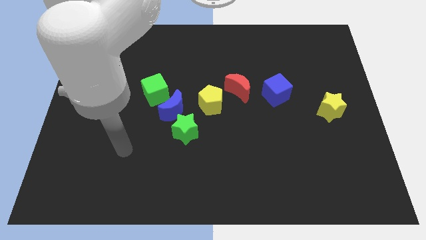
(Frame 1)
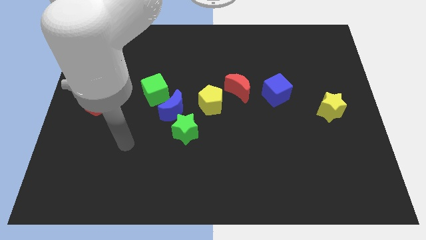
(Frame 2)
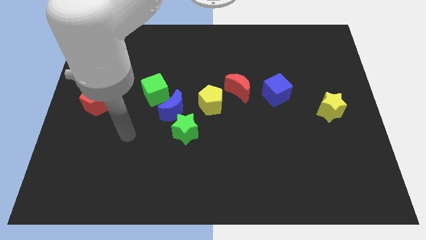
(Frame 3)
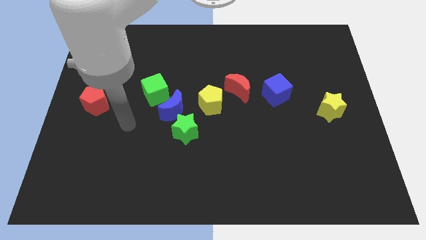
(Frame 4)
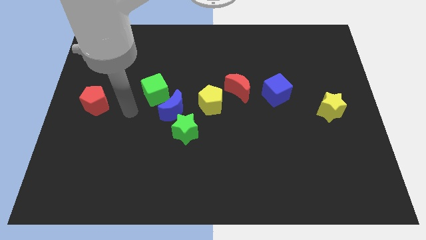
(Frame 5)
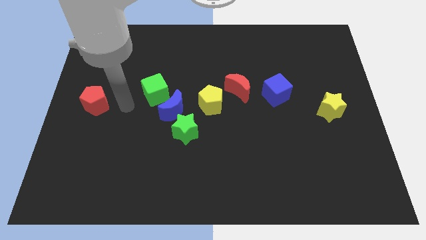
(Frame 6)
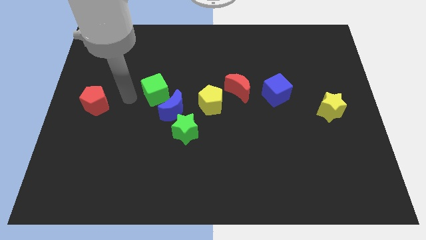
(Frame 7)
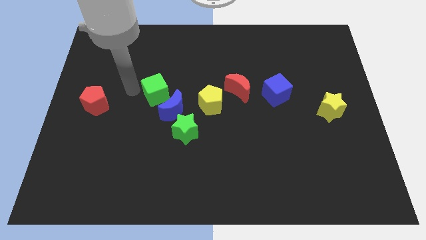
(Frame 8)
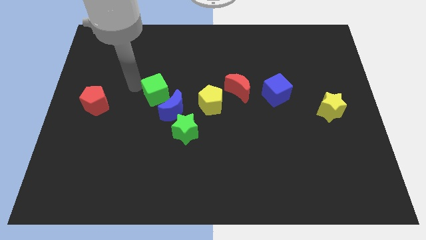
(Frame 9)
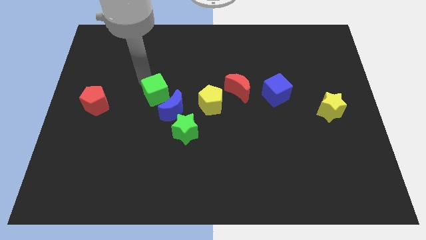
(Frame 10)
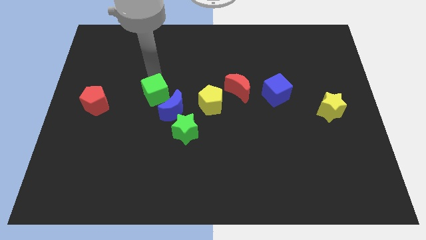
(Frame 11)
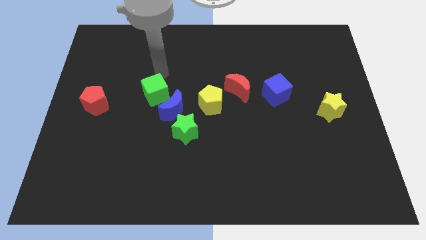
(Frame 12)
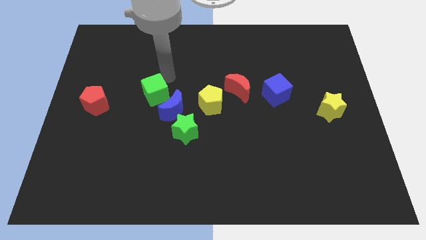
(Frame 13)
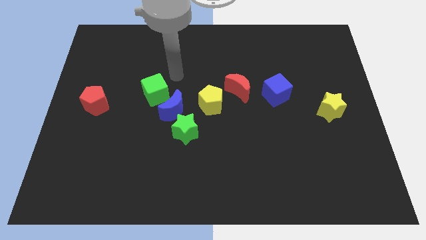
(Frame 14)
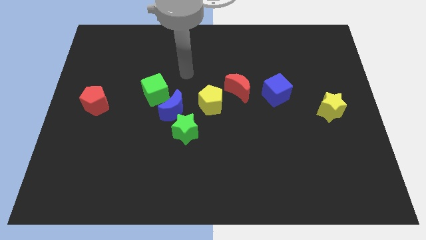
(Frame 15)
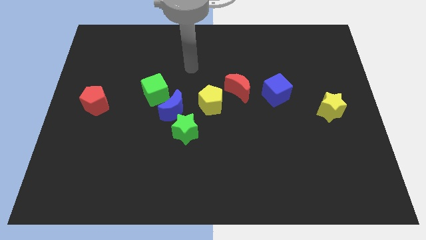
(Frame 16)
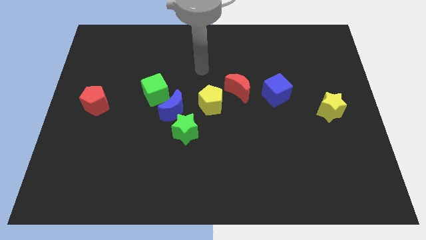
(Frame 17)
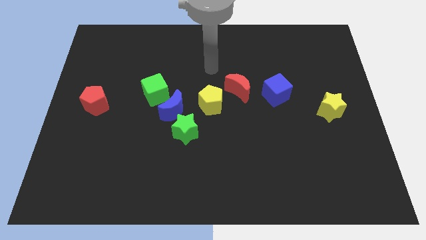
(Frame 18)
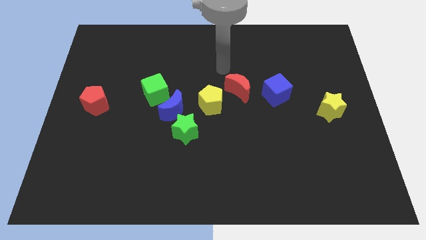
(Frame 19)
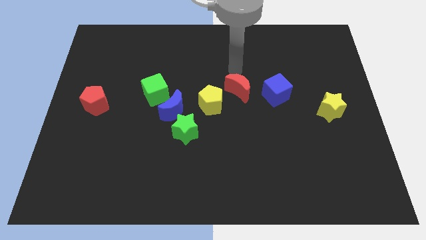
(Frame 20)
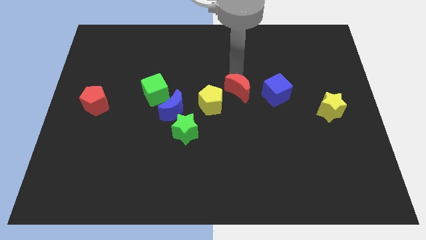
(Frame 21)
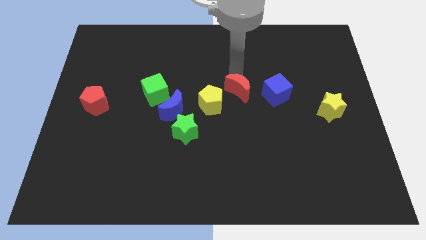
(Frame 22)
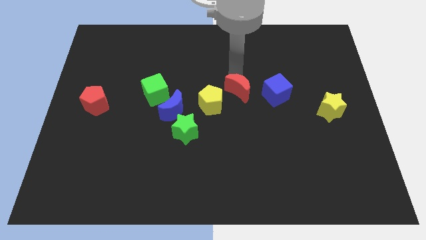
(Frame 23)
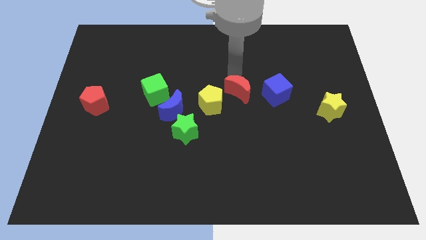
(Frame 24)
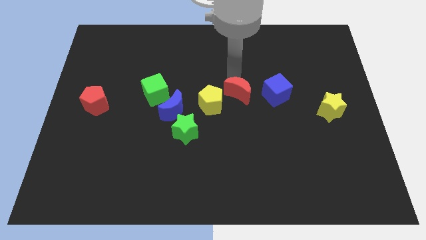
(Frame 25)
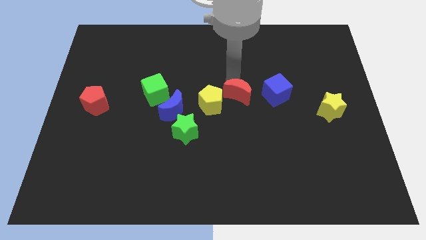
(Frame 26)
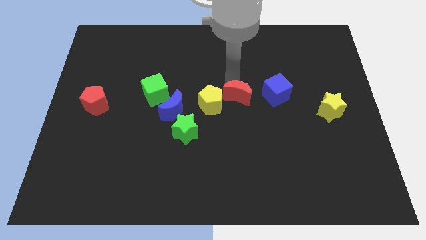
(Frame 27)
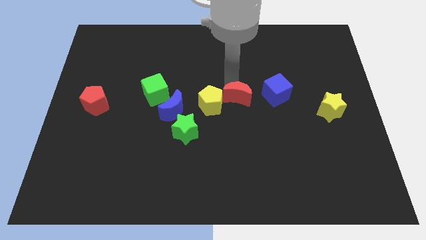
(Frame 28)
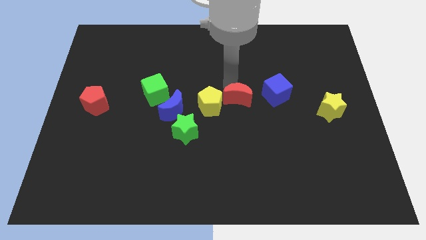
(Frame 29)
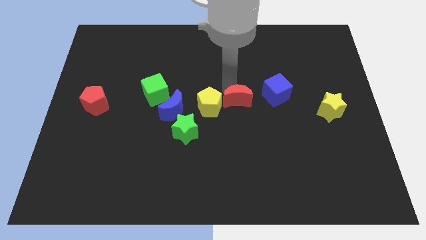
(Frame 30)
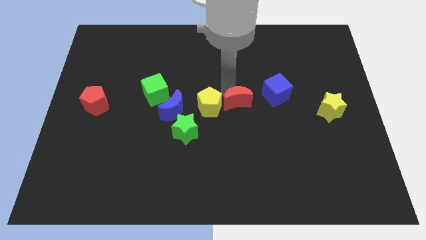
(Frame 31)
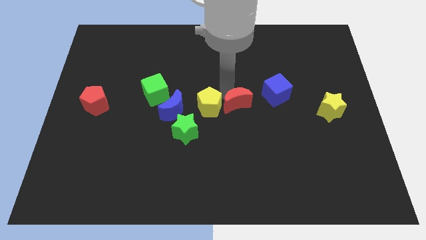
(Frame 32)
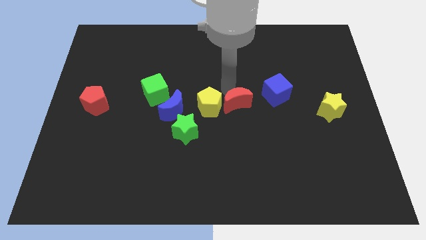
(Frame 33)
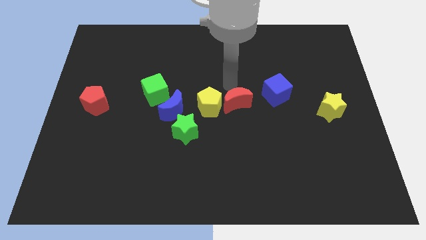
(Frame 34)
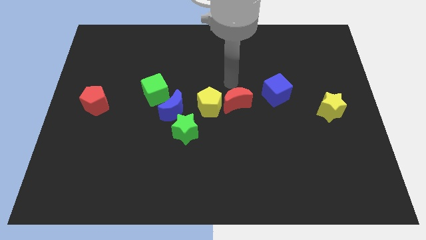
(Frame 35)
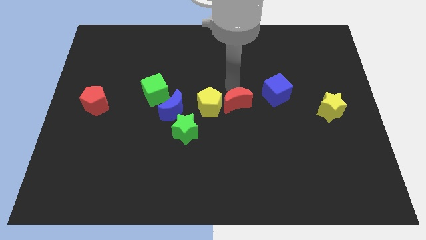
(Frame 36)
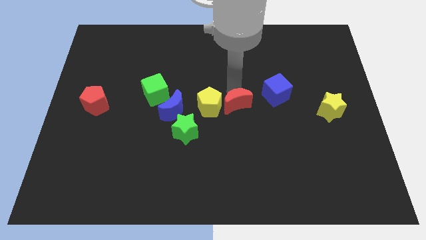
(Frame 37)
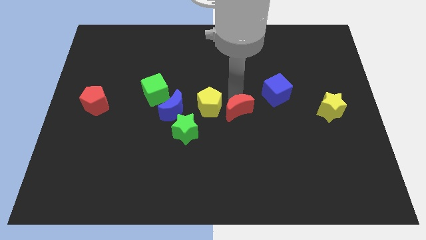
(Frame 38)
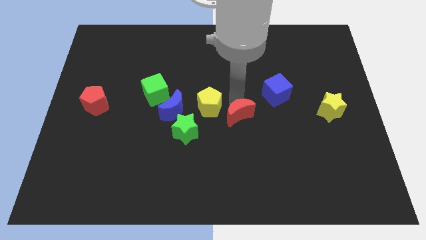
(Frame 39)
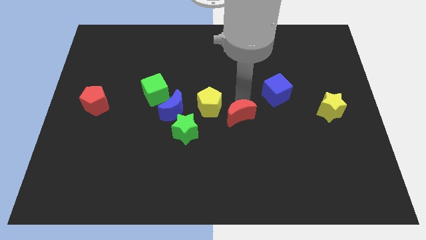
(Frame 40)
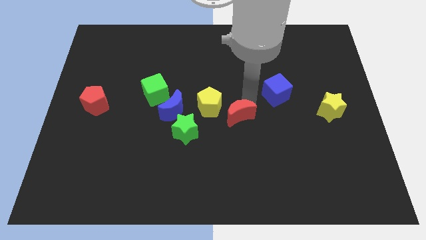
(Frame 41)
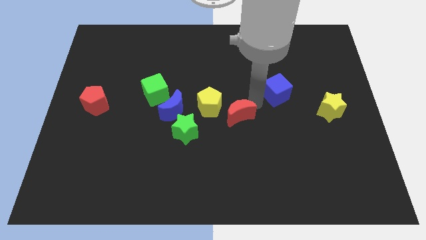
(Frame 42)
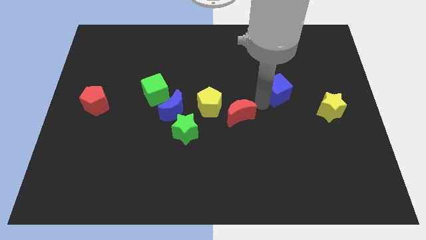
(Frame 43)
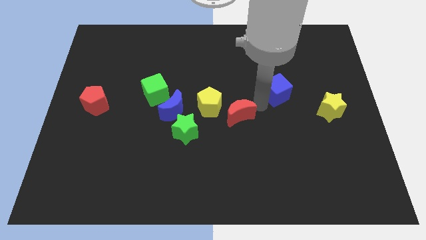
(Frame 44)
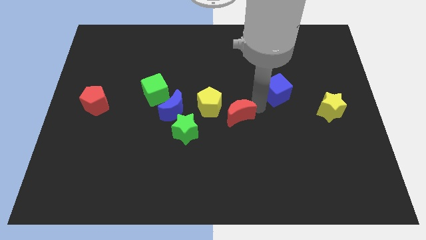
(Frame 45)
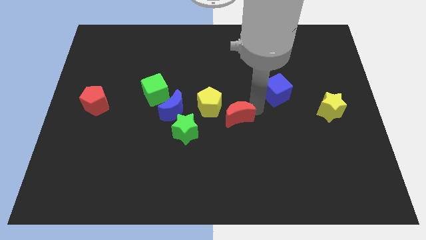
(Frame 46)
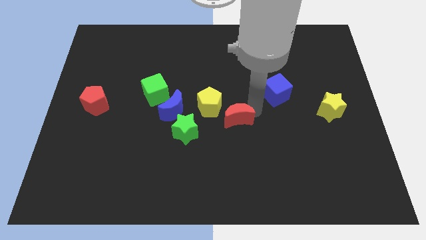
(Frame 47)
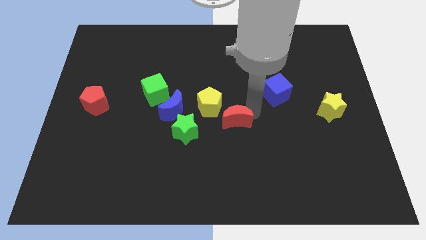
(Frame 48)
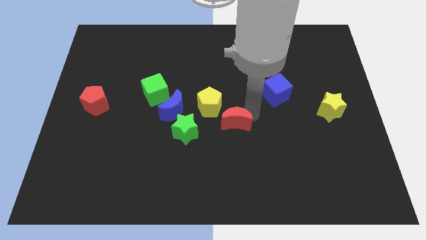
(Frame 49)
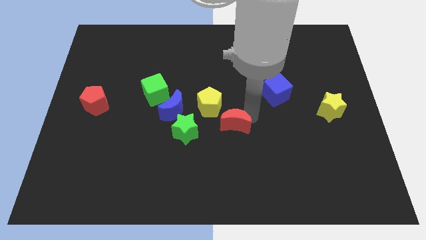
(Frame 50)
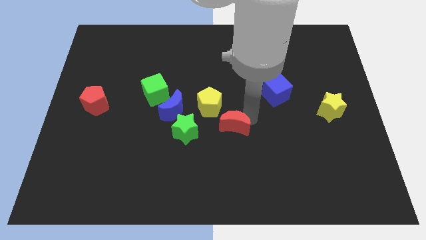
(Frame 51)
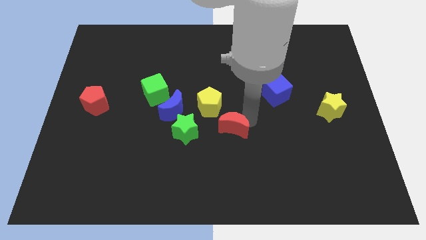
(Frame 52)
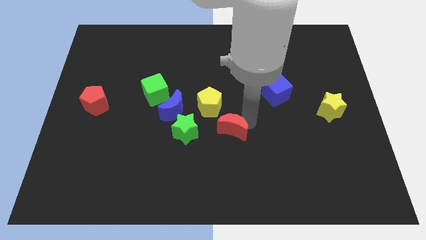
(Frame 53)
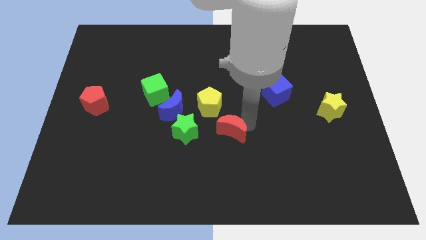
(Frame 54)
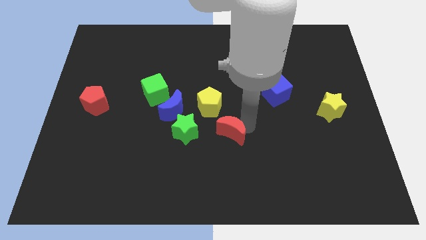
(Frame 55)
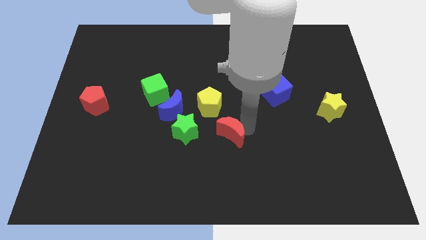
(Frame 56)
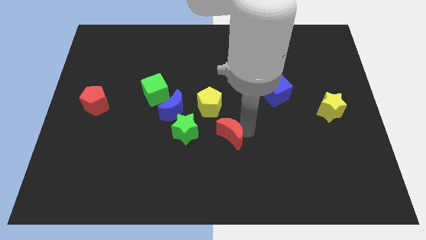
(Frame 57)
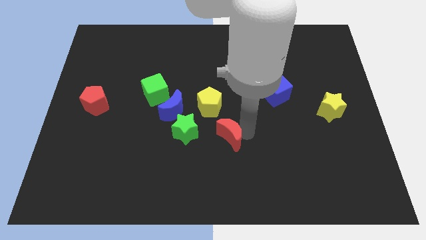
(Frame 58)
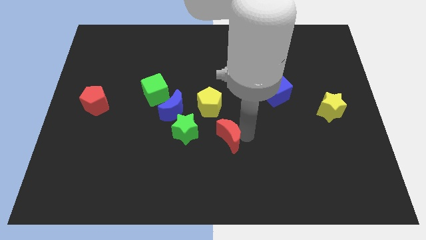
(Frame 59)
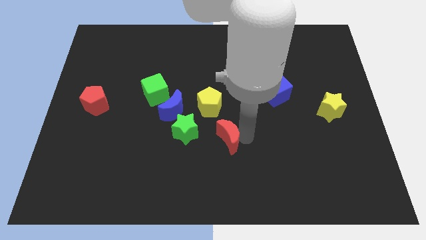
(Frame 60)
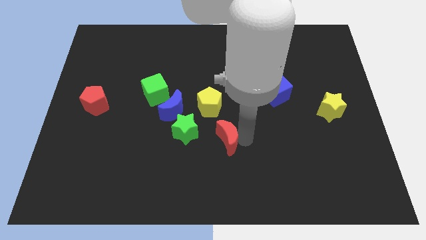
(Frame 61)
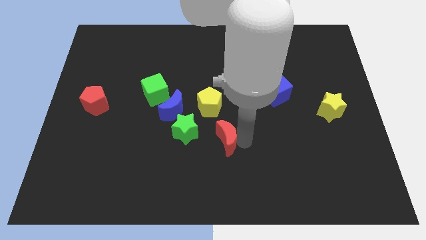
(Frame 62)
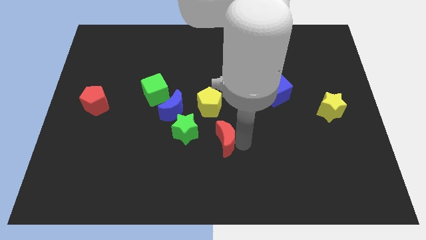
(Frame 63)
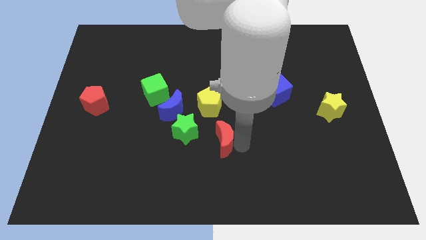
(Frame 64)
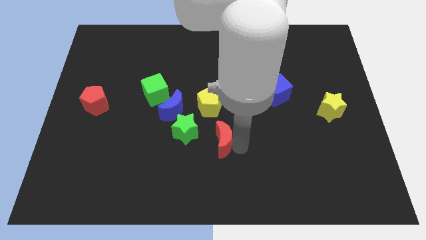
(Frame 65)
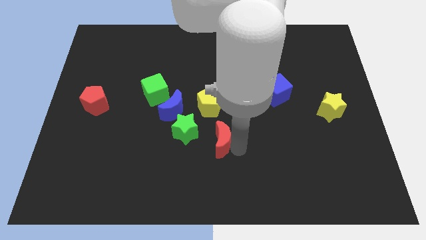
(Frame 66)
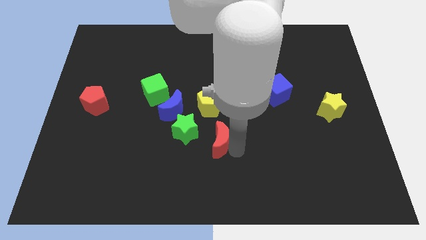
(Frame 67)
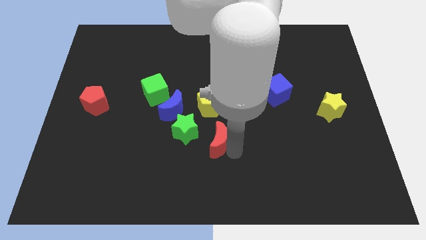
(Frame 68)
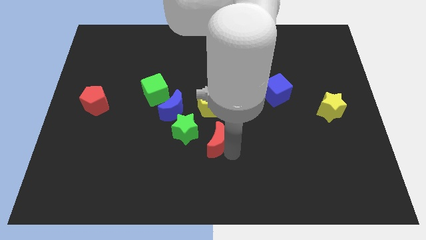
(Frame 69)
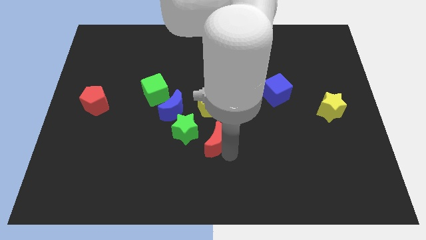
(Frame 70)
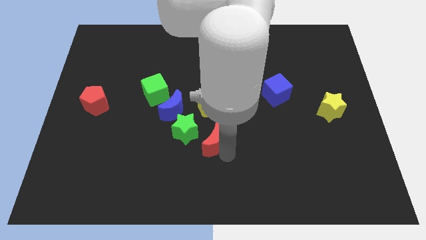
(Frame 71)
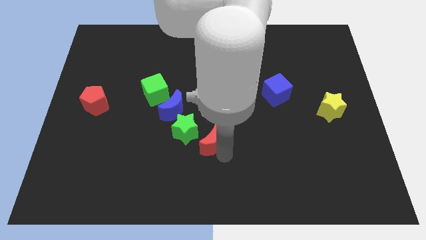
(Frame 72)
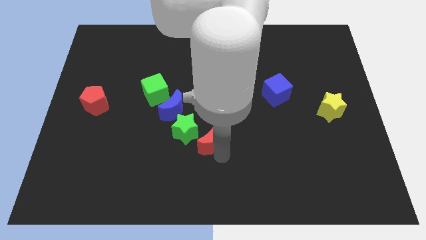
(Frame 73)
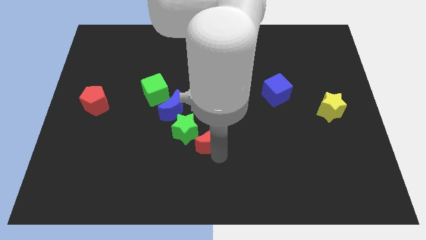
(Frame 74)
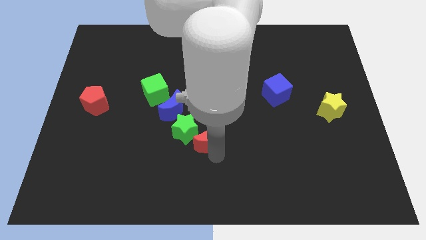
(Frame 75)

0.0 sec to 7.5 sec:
slide the red moon close to the green star

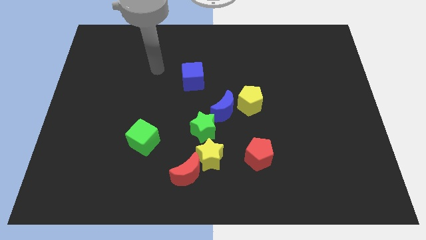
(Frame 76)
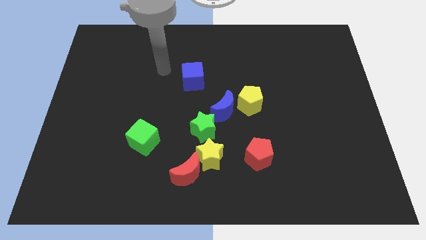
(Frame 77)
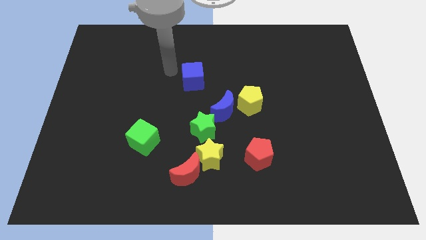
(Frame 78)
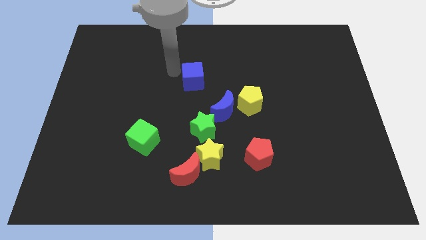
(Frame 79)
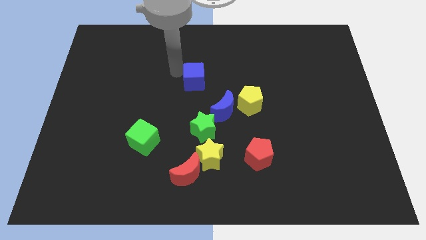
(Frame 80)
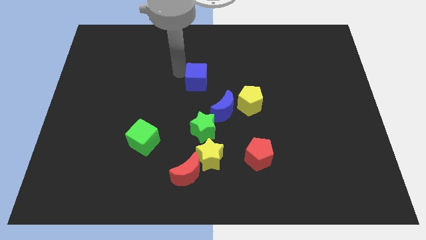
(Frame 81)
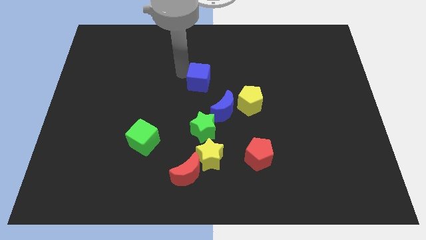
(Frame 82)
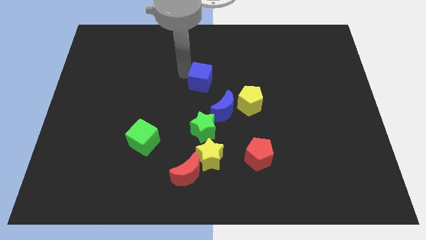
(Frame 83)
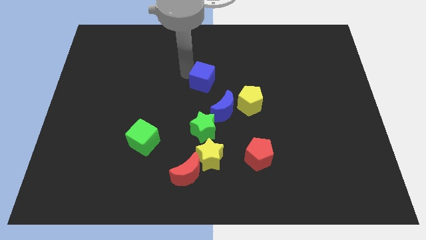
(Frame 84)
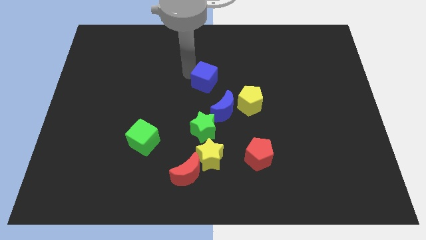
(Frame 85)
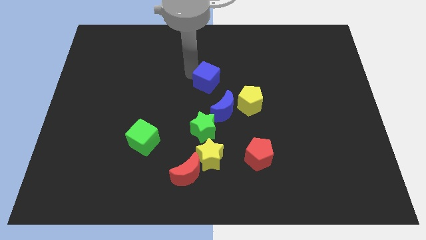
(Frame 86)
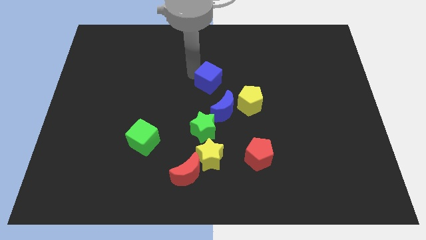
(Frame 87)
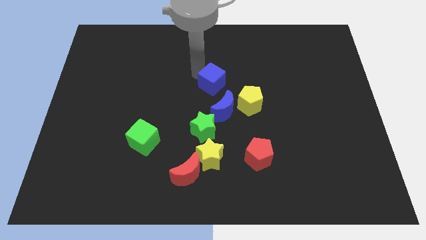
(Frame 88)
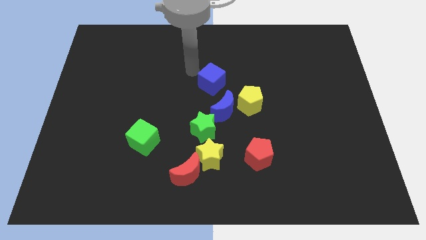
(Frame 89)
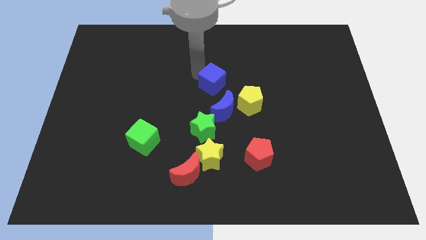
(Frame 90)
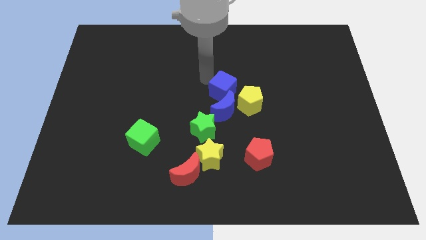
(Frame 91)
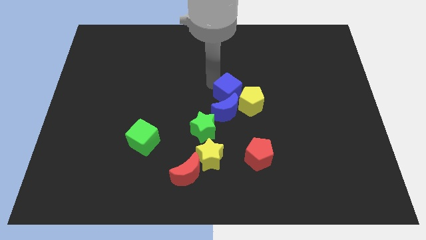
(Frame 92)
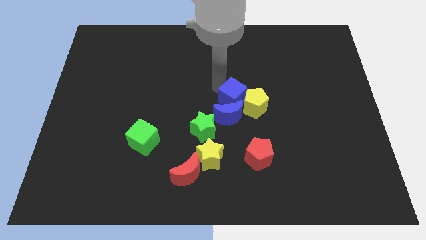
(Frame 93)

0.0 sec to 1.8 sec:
slide the blue cube towards the yellow pentagon
